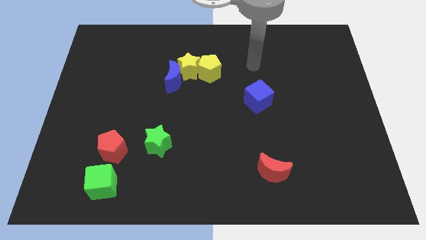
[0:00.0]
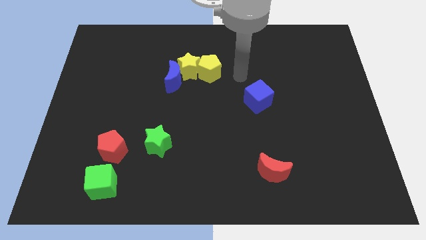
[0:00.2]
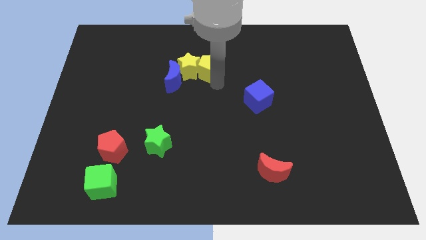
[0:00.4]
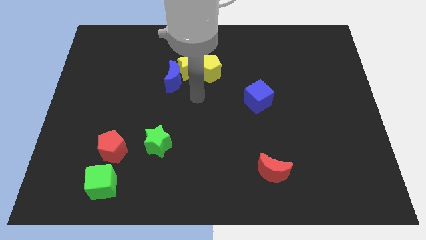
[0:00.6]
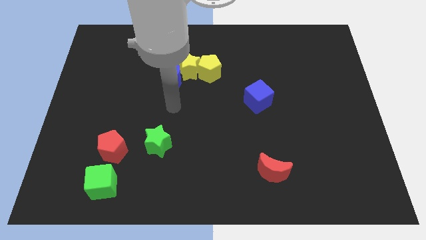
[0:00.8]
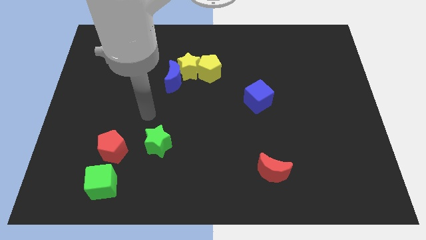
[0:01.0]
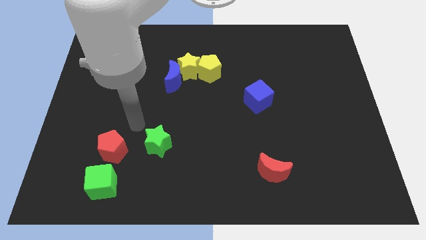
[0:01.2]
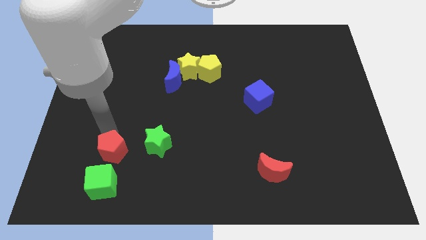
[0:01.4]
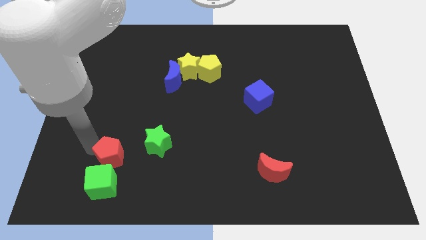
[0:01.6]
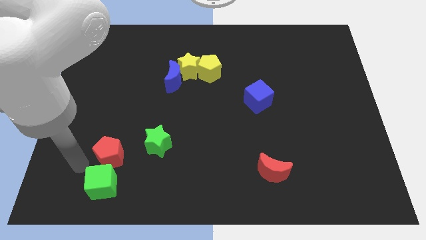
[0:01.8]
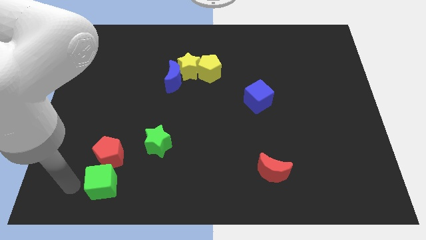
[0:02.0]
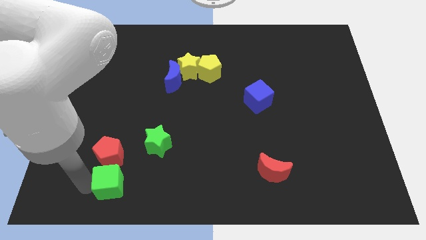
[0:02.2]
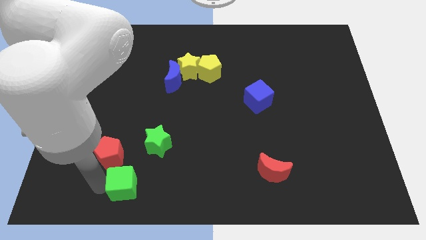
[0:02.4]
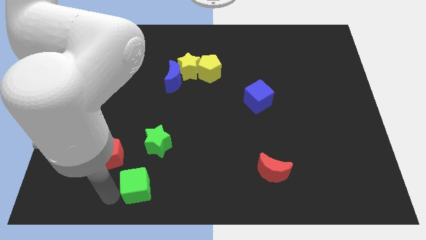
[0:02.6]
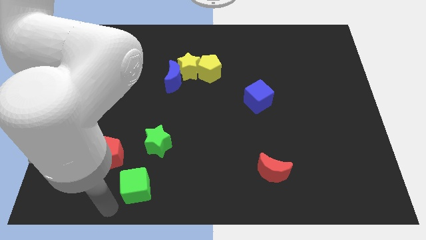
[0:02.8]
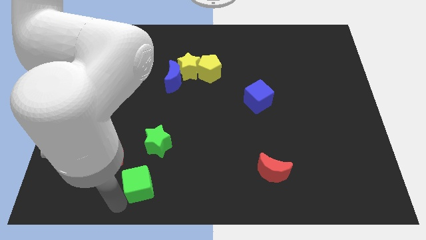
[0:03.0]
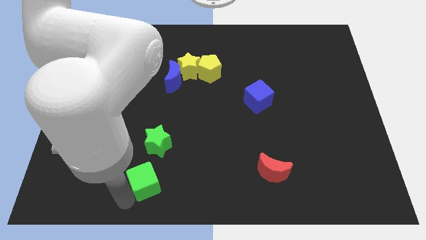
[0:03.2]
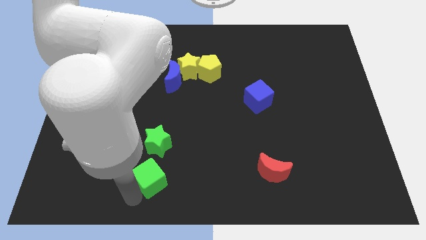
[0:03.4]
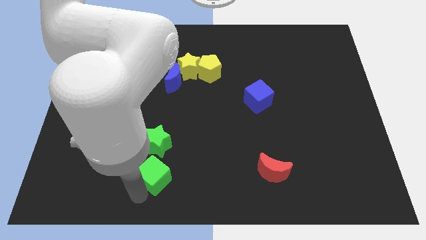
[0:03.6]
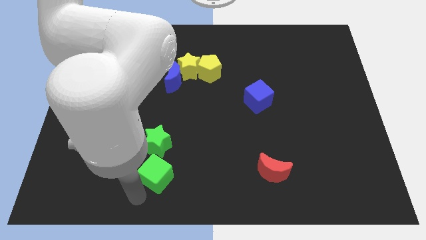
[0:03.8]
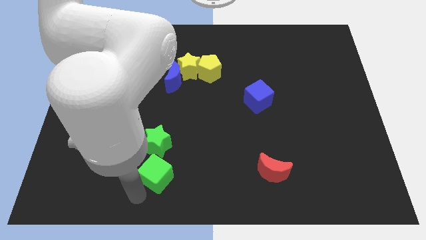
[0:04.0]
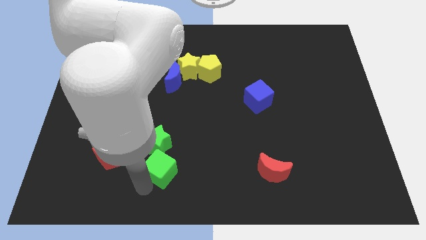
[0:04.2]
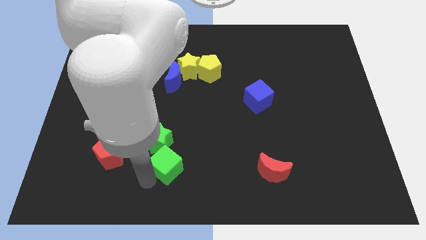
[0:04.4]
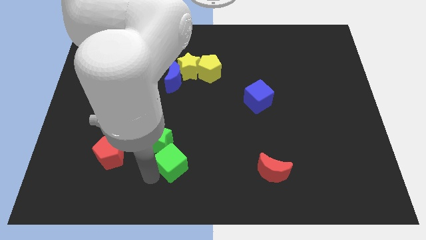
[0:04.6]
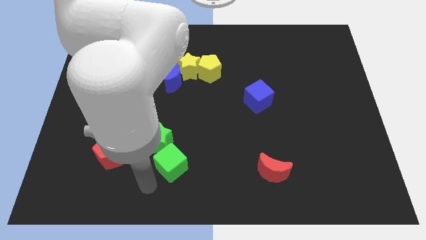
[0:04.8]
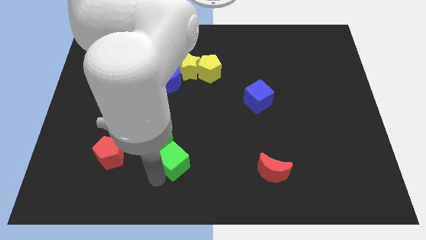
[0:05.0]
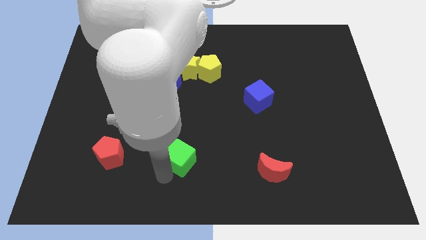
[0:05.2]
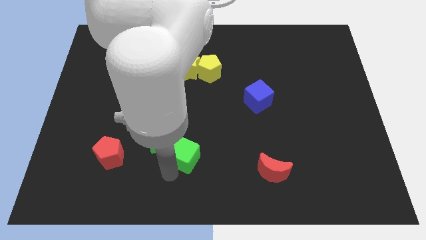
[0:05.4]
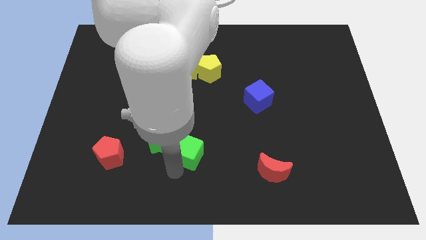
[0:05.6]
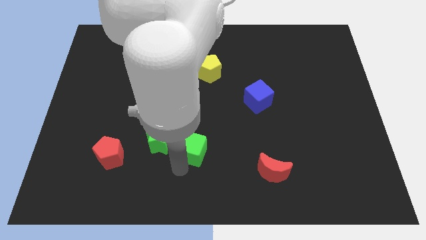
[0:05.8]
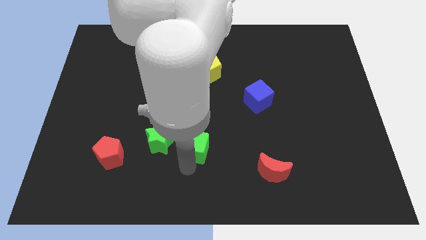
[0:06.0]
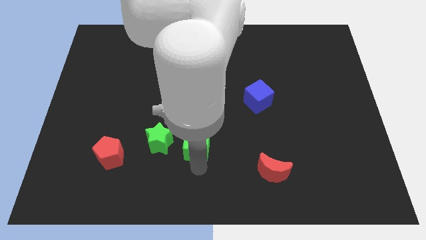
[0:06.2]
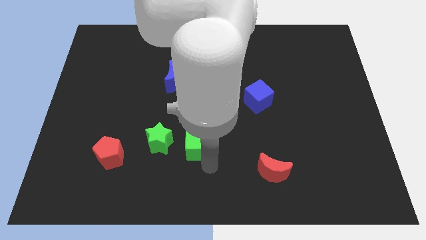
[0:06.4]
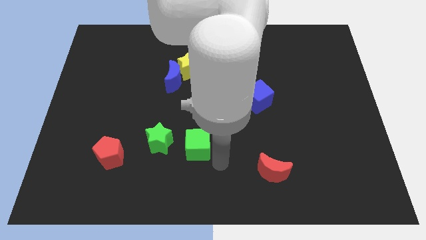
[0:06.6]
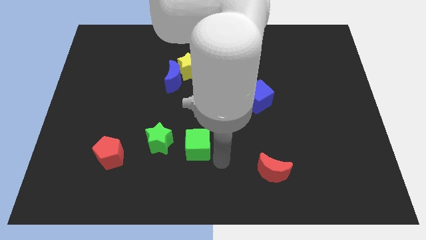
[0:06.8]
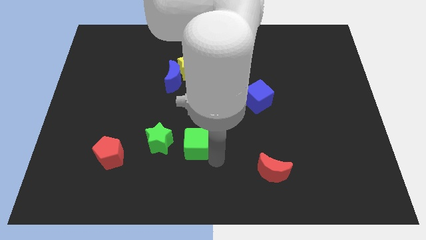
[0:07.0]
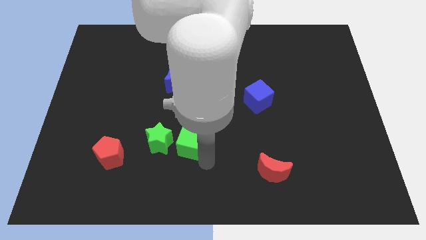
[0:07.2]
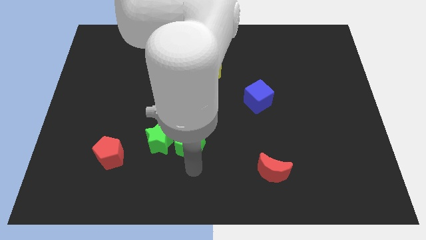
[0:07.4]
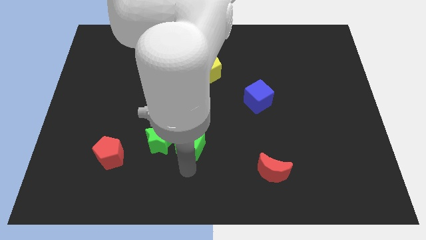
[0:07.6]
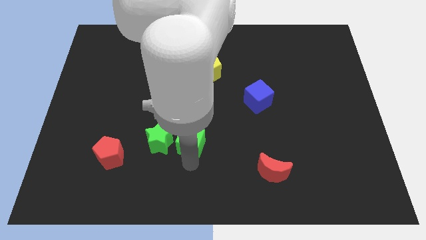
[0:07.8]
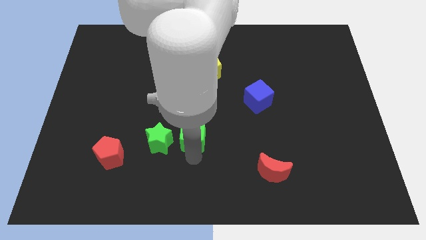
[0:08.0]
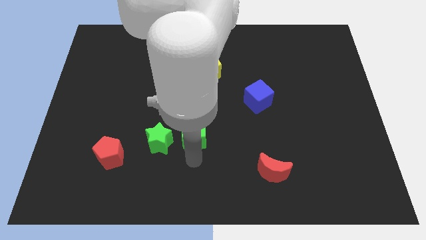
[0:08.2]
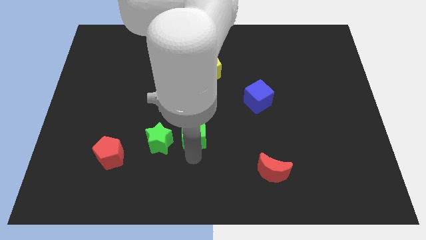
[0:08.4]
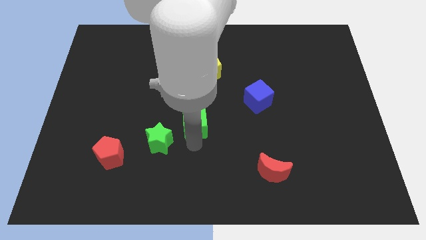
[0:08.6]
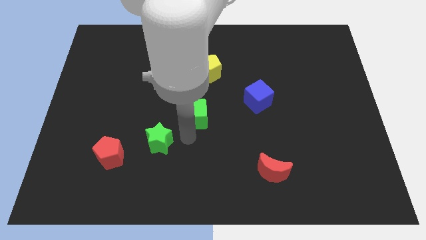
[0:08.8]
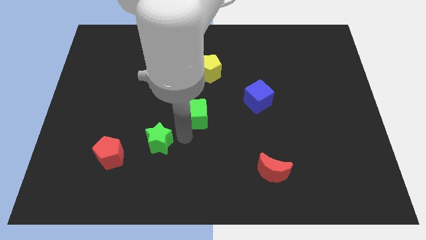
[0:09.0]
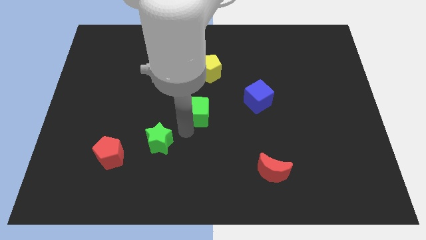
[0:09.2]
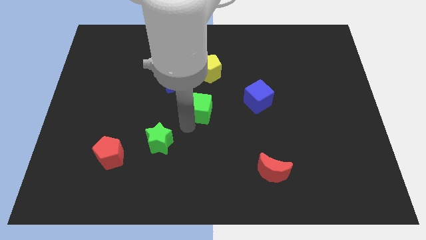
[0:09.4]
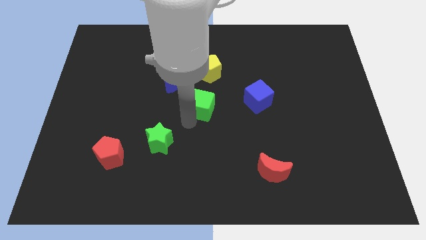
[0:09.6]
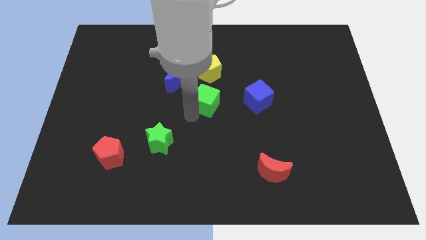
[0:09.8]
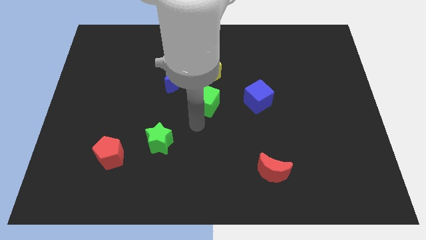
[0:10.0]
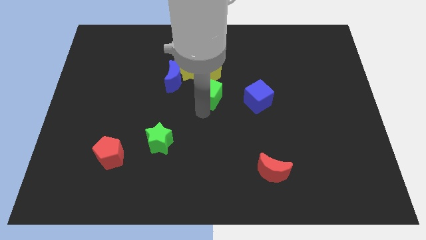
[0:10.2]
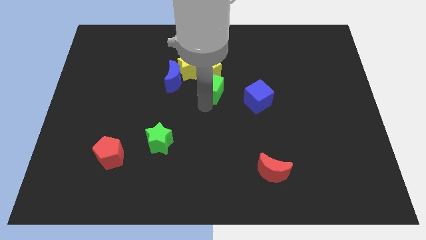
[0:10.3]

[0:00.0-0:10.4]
slide the green cube just right of the blue moon

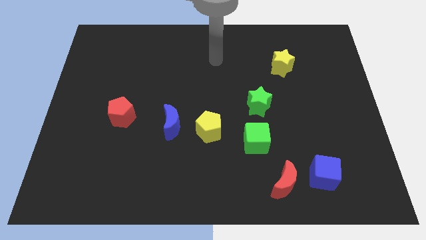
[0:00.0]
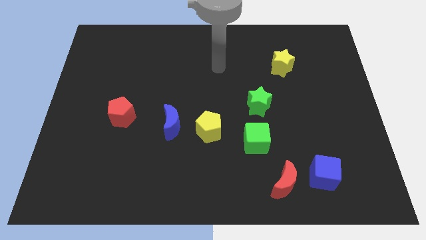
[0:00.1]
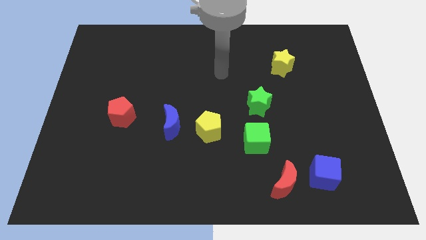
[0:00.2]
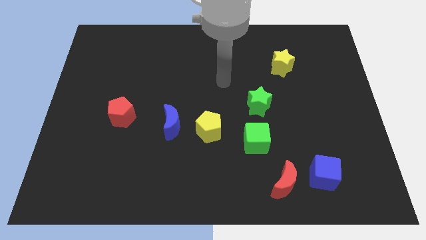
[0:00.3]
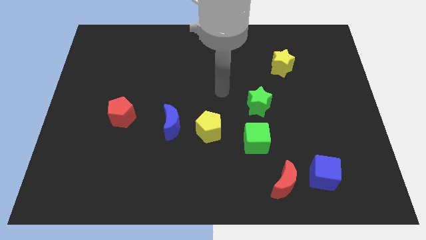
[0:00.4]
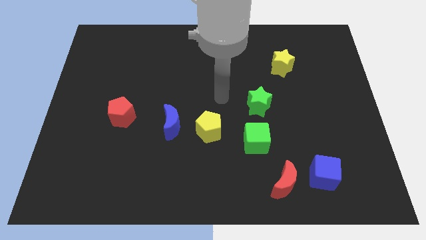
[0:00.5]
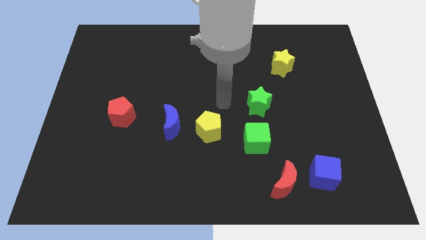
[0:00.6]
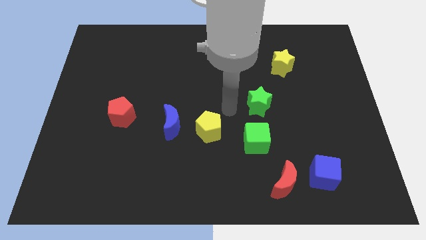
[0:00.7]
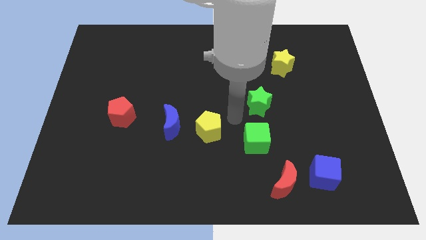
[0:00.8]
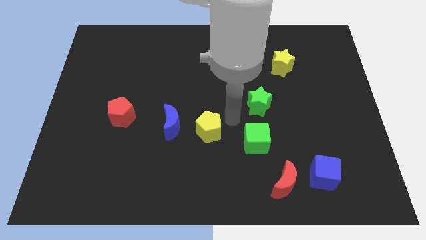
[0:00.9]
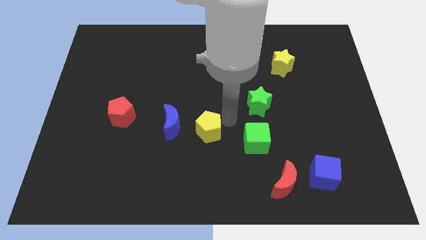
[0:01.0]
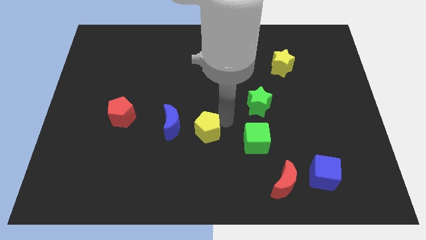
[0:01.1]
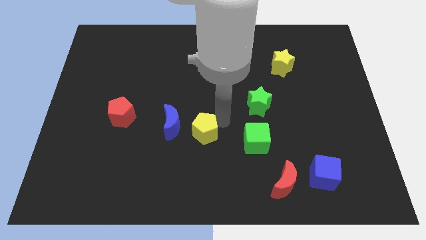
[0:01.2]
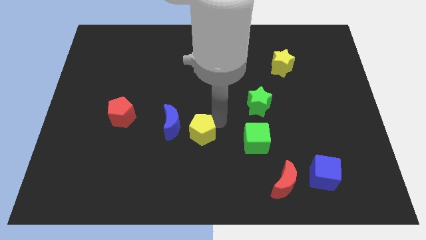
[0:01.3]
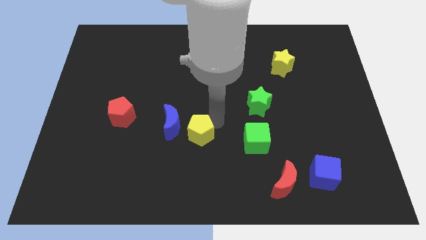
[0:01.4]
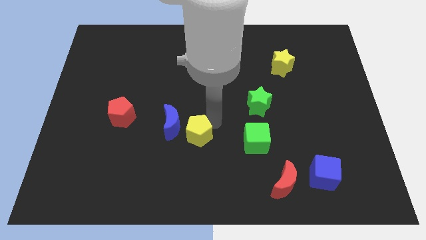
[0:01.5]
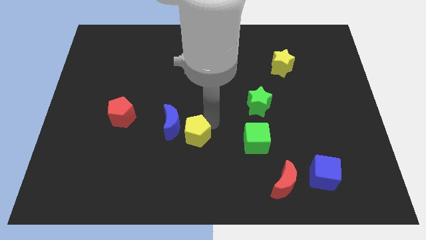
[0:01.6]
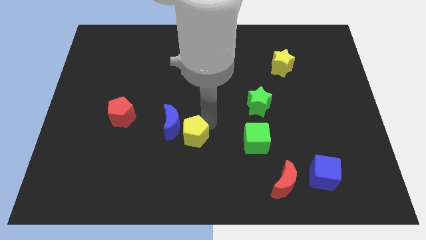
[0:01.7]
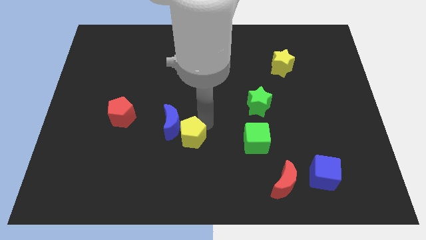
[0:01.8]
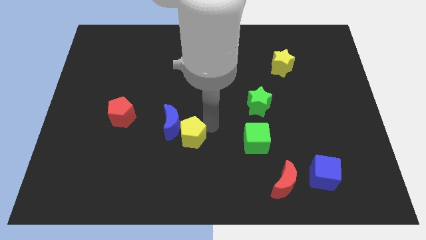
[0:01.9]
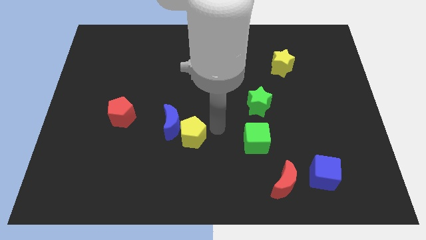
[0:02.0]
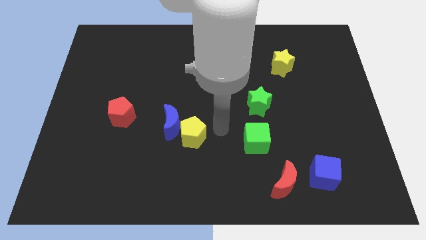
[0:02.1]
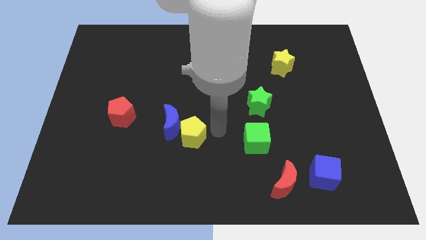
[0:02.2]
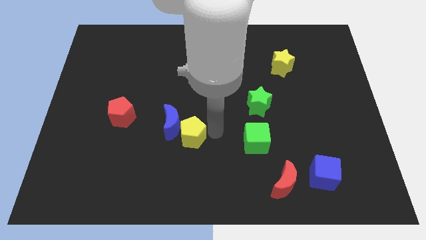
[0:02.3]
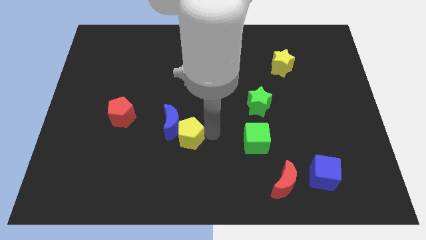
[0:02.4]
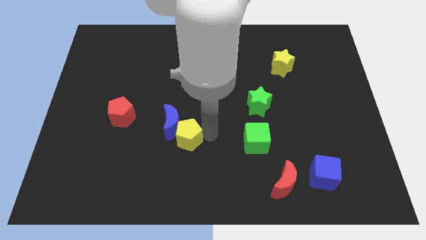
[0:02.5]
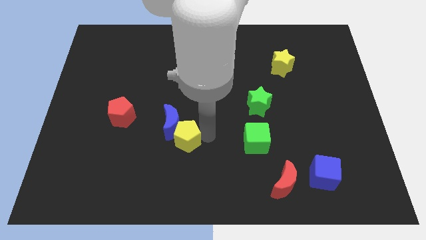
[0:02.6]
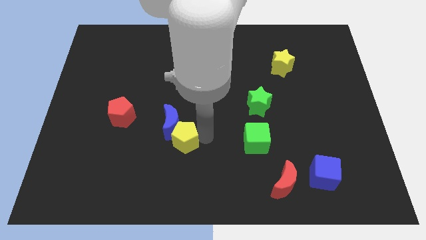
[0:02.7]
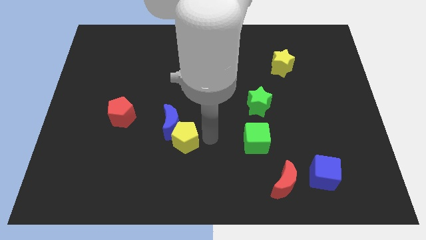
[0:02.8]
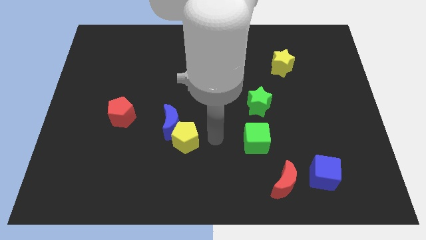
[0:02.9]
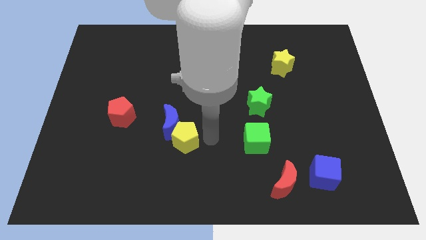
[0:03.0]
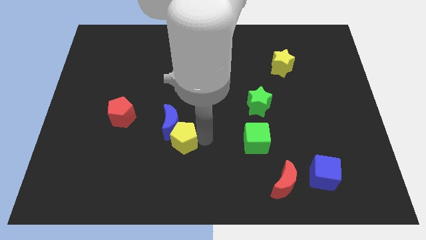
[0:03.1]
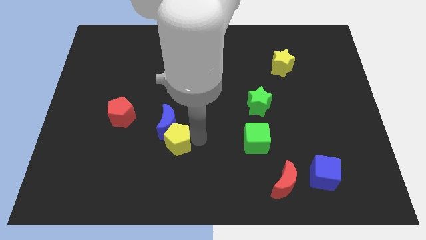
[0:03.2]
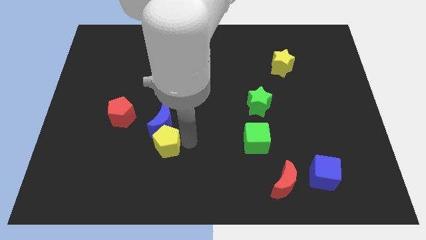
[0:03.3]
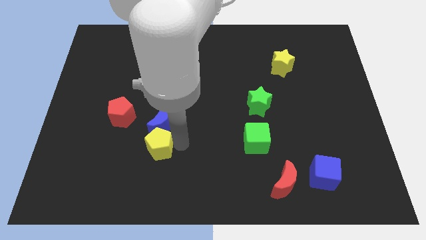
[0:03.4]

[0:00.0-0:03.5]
put the yellow pentagon to the bottom right side of the red pentagon
